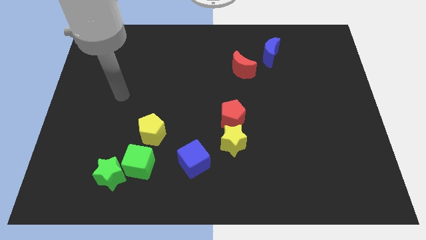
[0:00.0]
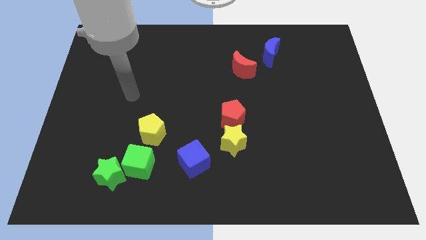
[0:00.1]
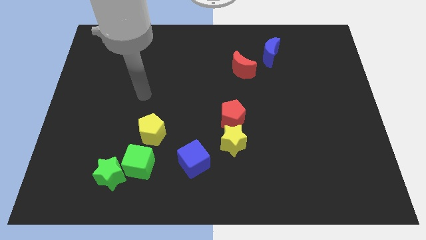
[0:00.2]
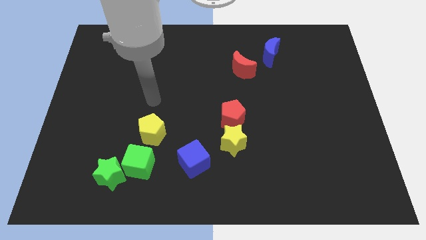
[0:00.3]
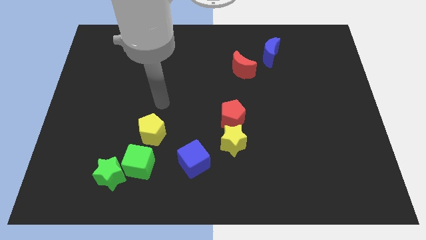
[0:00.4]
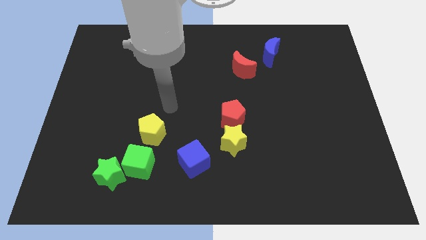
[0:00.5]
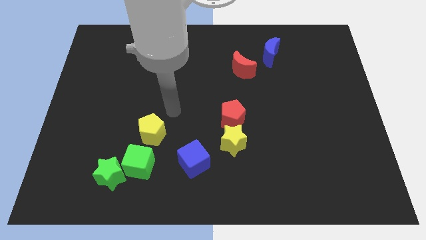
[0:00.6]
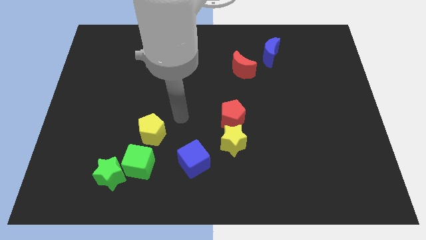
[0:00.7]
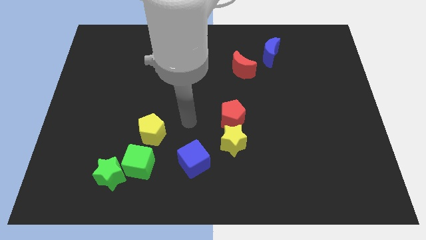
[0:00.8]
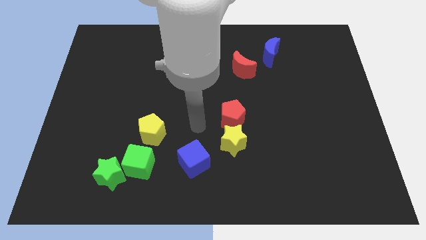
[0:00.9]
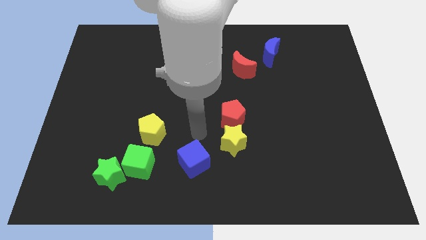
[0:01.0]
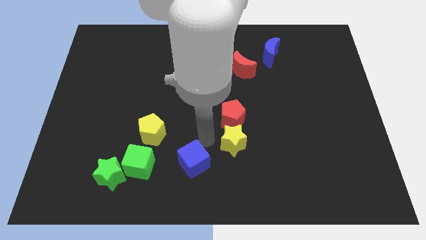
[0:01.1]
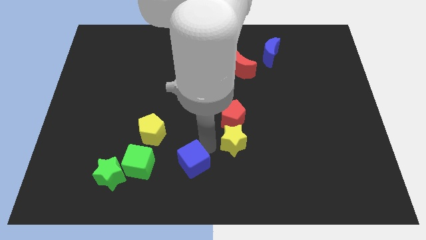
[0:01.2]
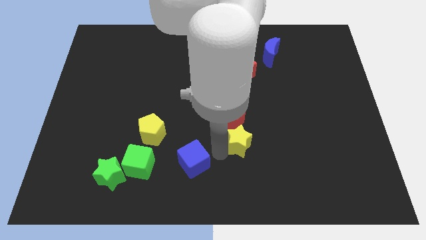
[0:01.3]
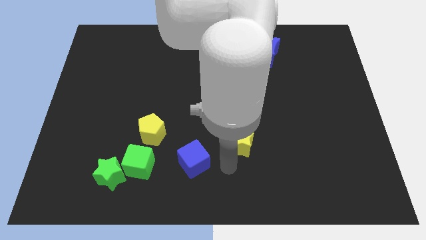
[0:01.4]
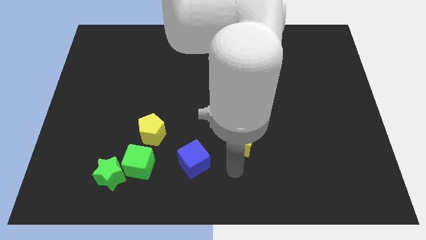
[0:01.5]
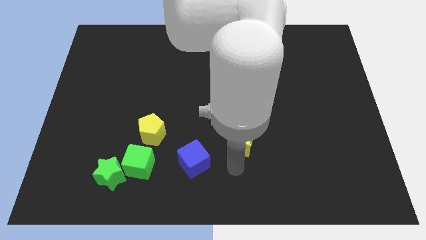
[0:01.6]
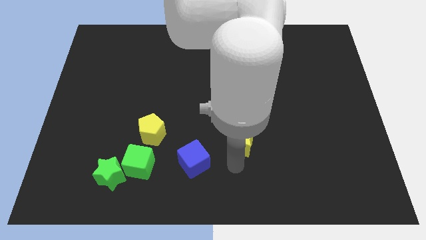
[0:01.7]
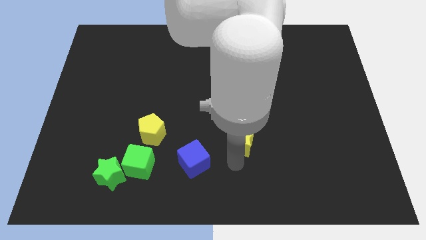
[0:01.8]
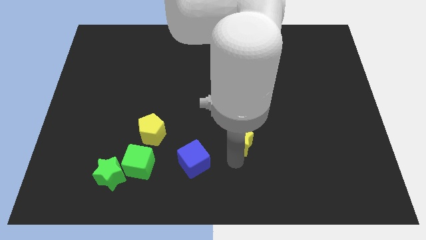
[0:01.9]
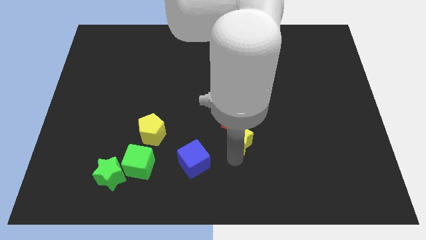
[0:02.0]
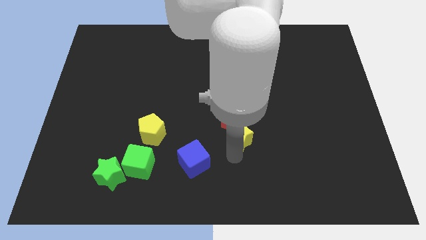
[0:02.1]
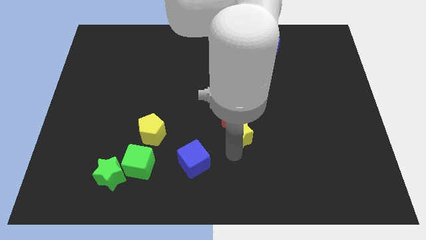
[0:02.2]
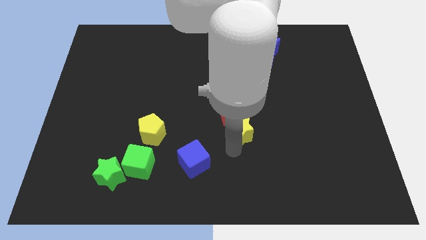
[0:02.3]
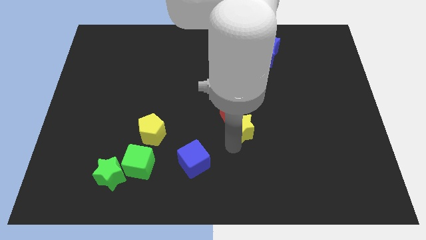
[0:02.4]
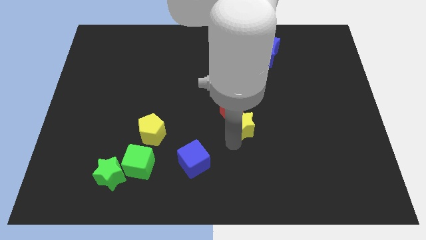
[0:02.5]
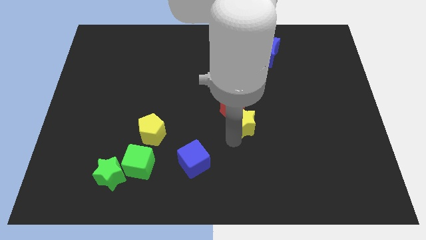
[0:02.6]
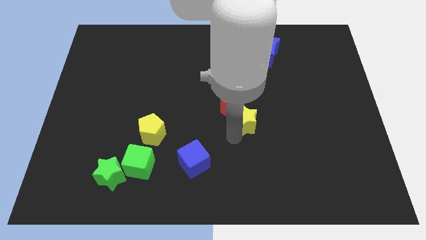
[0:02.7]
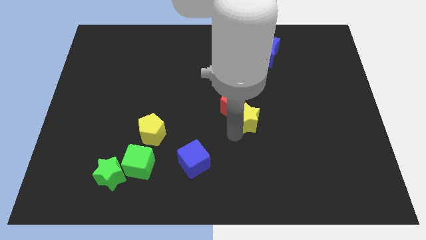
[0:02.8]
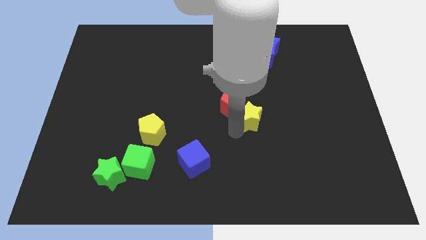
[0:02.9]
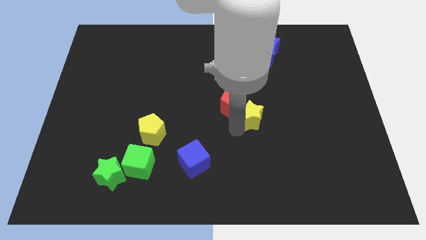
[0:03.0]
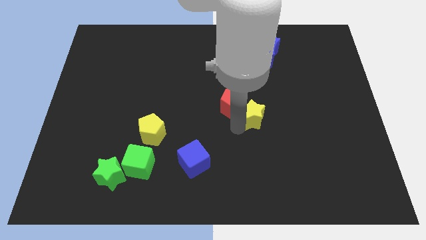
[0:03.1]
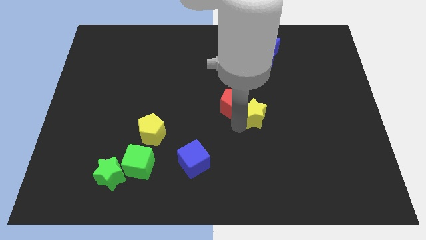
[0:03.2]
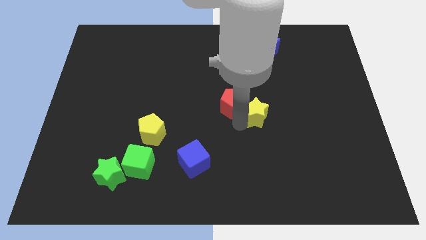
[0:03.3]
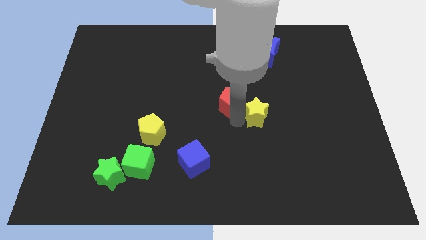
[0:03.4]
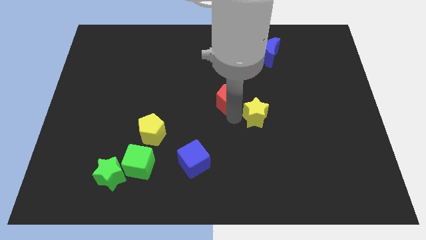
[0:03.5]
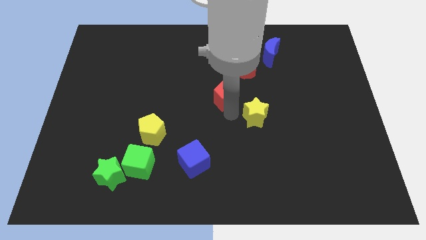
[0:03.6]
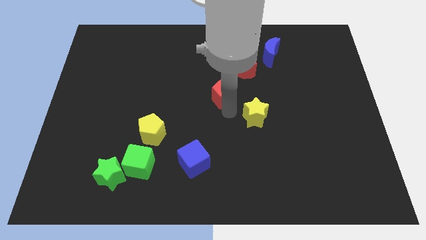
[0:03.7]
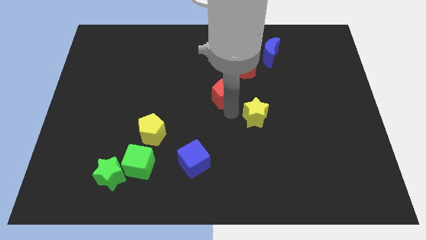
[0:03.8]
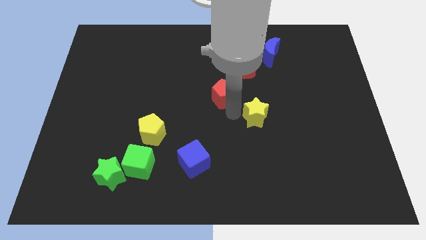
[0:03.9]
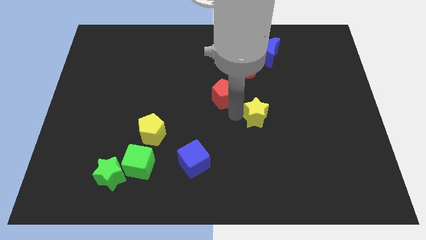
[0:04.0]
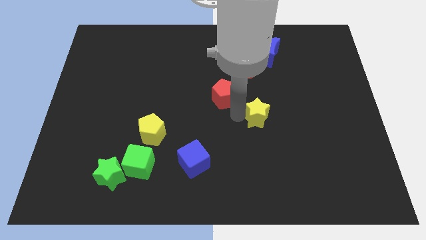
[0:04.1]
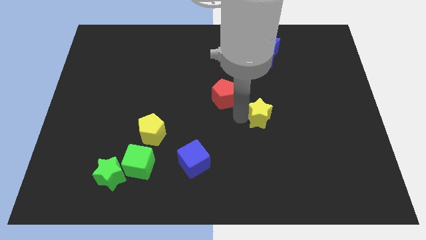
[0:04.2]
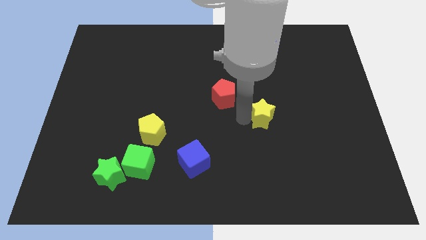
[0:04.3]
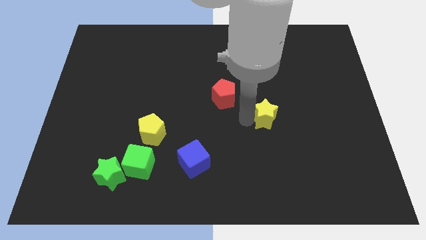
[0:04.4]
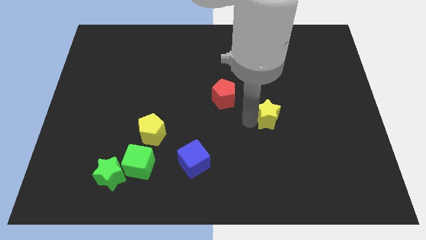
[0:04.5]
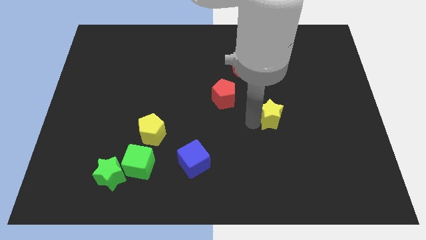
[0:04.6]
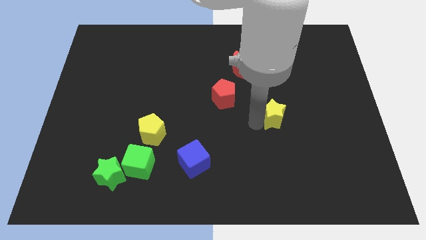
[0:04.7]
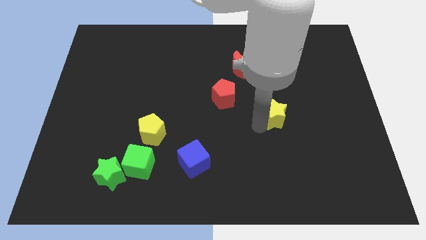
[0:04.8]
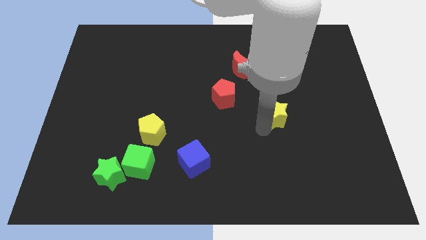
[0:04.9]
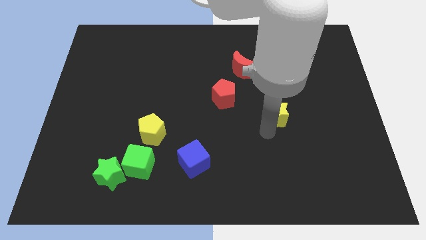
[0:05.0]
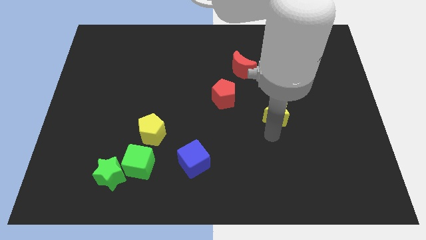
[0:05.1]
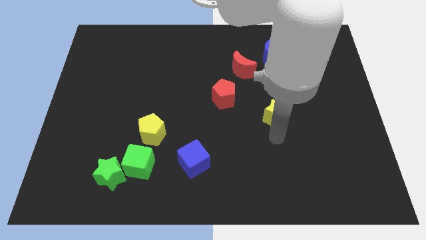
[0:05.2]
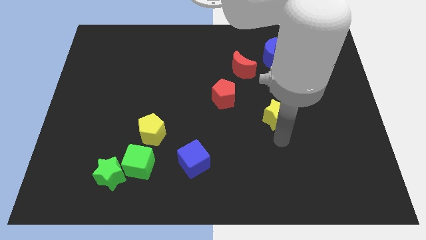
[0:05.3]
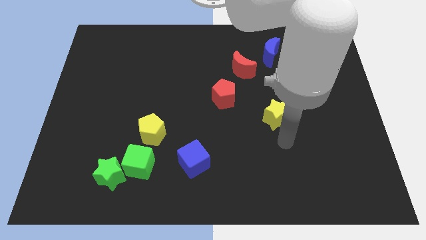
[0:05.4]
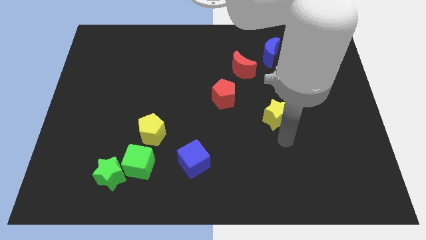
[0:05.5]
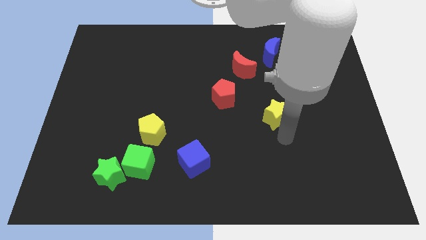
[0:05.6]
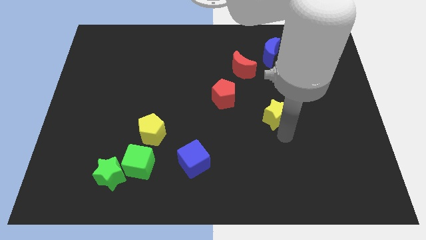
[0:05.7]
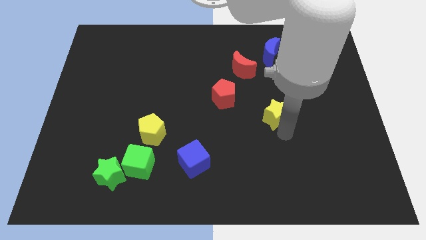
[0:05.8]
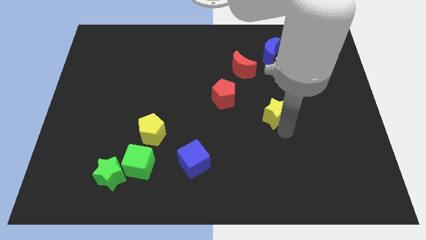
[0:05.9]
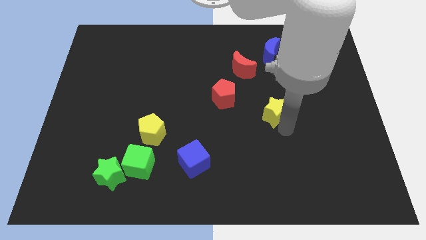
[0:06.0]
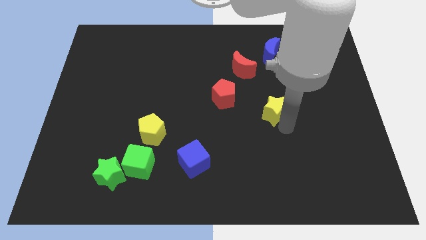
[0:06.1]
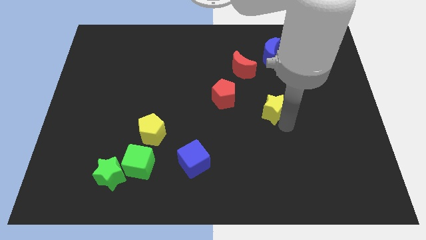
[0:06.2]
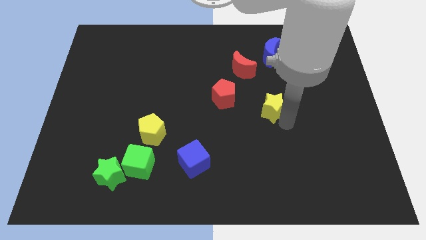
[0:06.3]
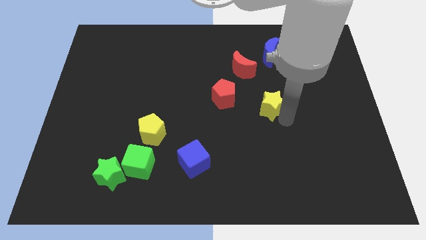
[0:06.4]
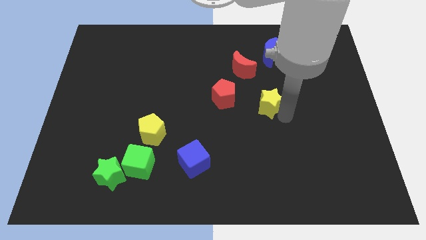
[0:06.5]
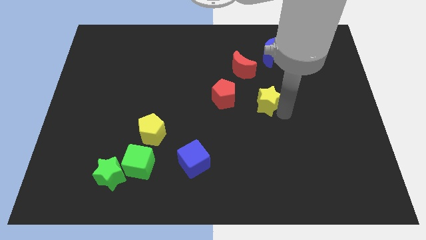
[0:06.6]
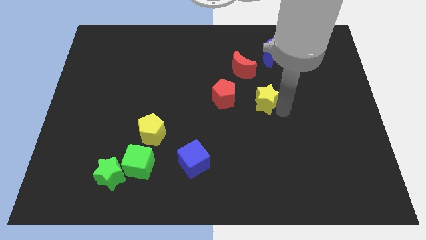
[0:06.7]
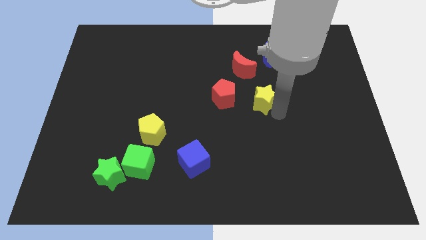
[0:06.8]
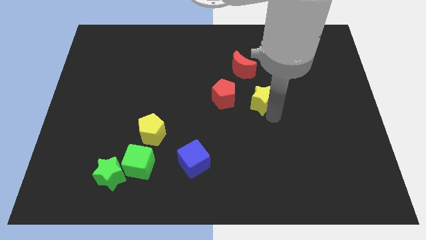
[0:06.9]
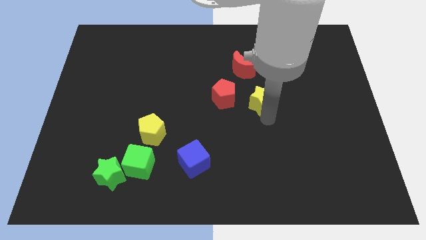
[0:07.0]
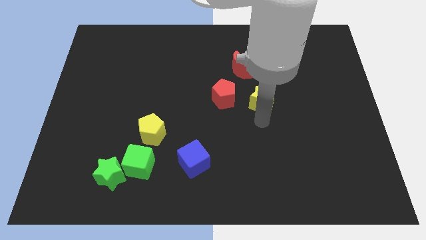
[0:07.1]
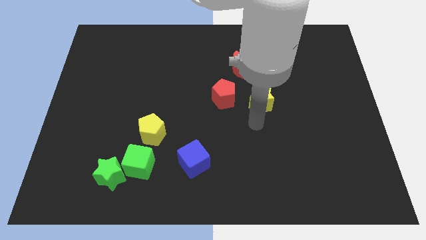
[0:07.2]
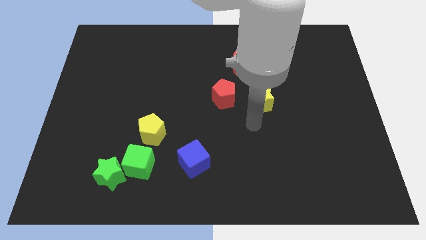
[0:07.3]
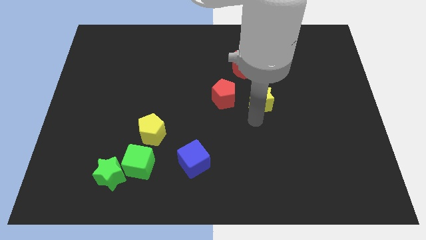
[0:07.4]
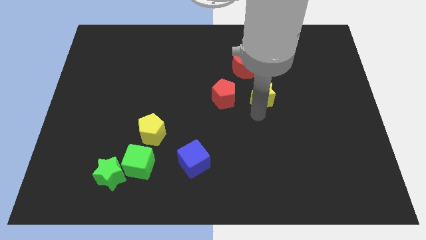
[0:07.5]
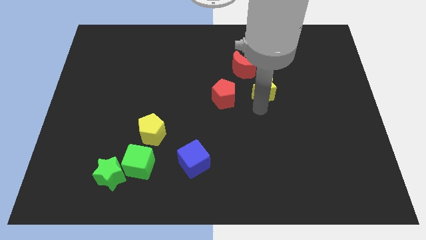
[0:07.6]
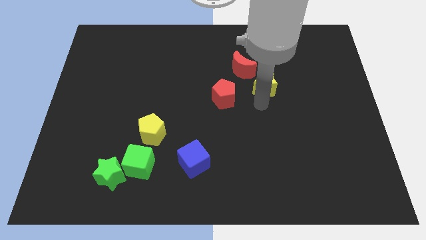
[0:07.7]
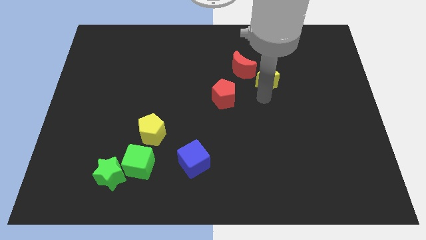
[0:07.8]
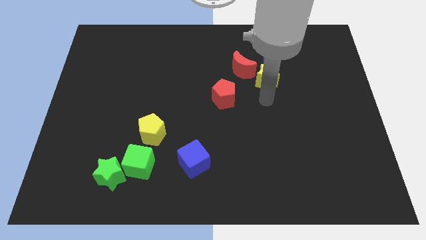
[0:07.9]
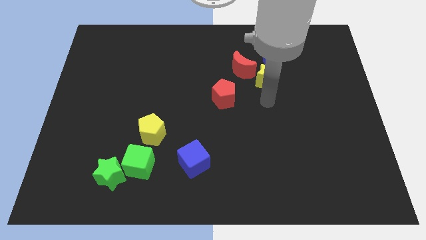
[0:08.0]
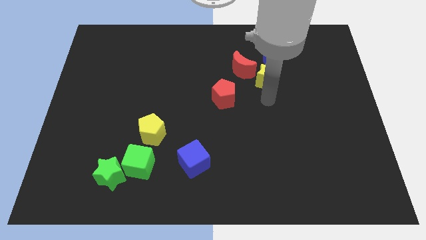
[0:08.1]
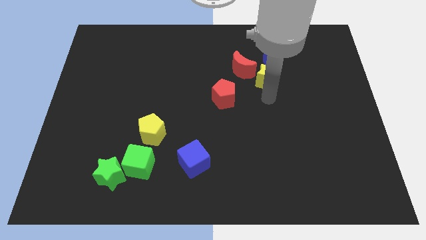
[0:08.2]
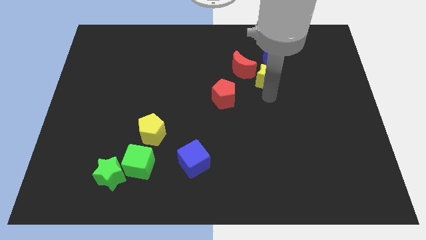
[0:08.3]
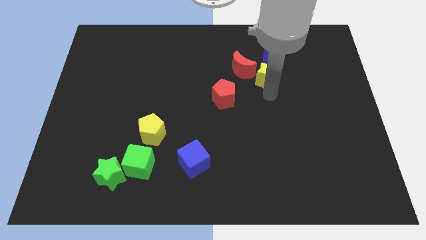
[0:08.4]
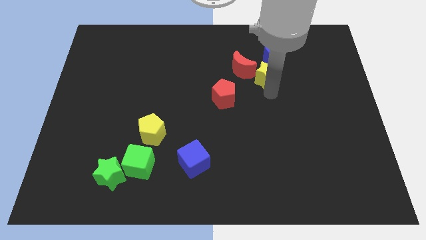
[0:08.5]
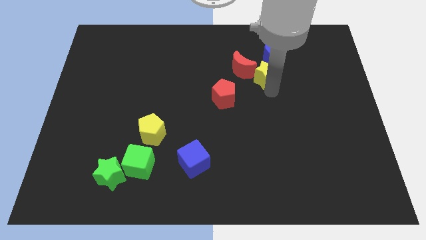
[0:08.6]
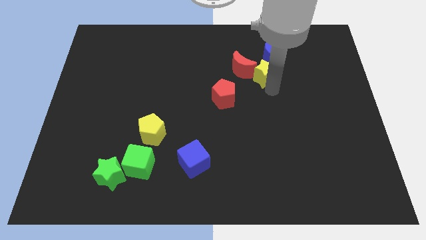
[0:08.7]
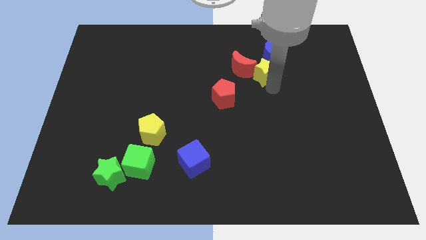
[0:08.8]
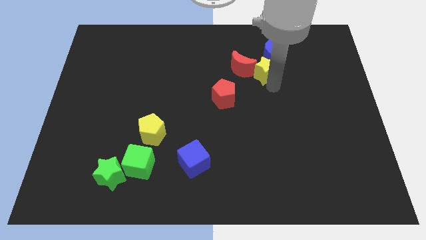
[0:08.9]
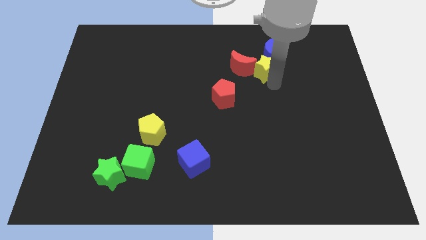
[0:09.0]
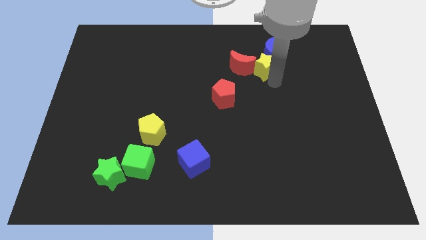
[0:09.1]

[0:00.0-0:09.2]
slide the yellow star to the blue moon
